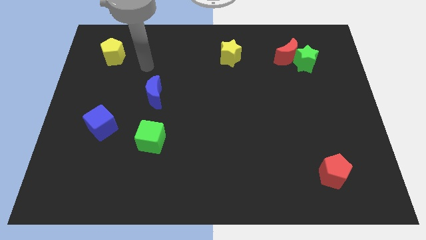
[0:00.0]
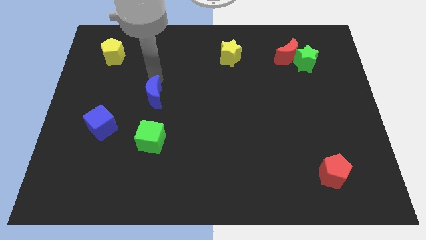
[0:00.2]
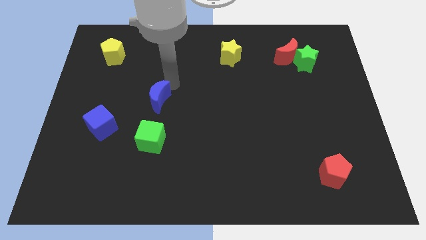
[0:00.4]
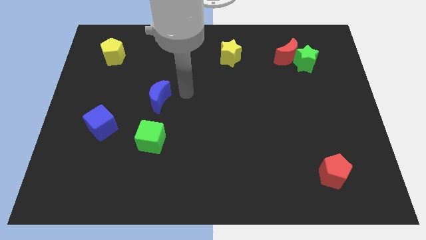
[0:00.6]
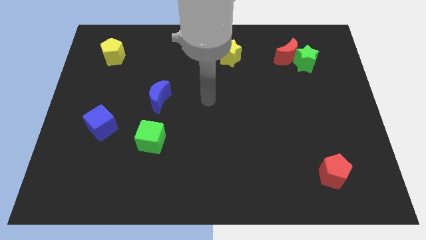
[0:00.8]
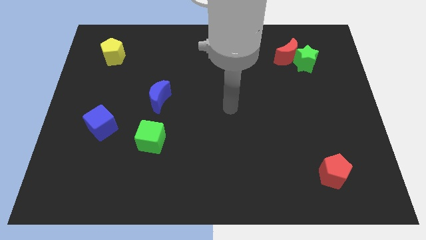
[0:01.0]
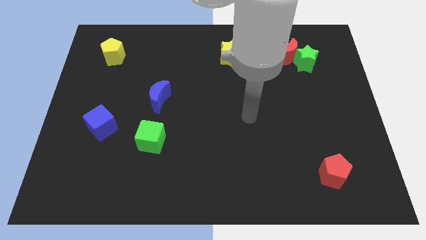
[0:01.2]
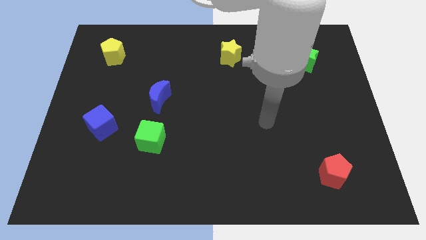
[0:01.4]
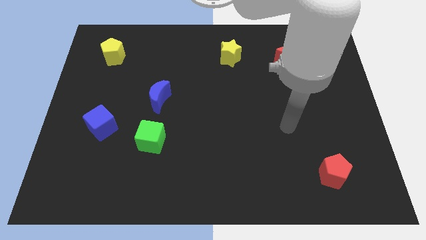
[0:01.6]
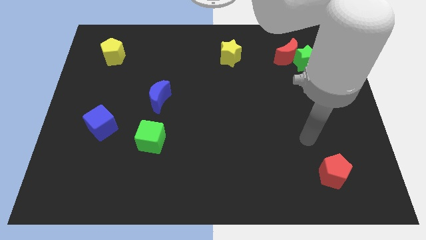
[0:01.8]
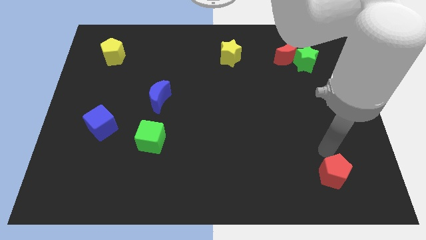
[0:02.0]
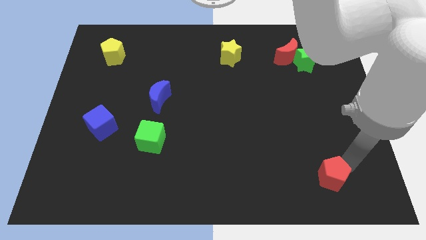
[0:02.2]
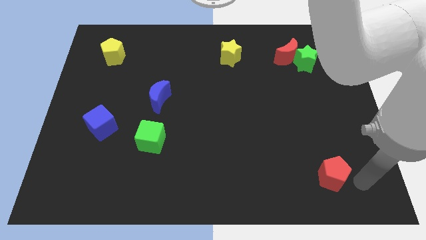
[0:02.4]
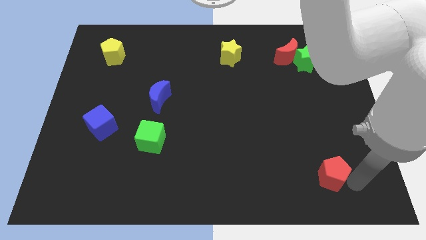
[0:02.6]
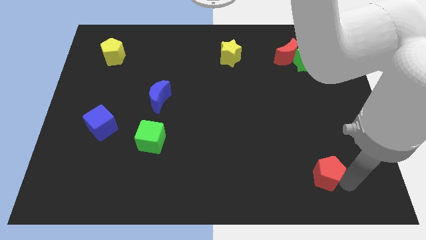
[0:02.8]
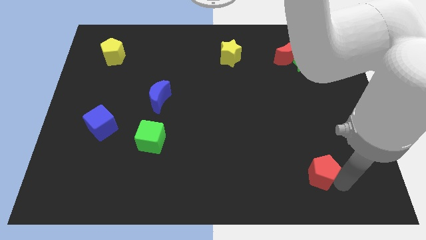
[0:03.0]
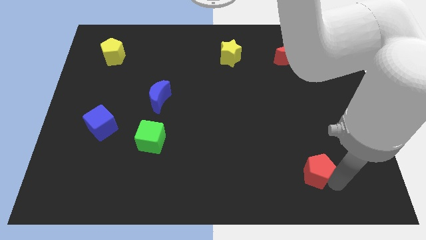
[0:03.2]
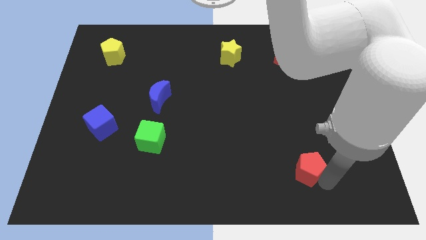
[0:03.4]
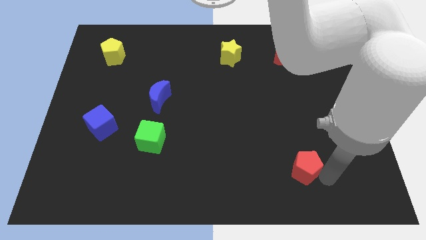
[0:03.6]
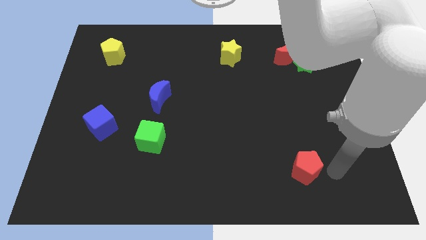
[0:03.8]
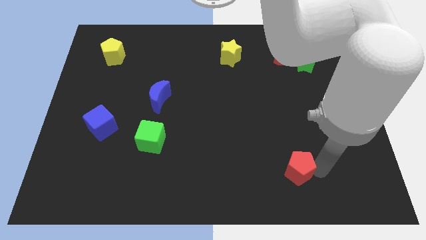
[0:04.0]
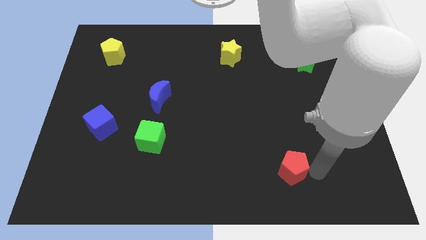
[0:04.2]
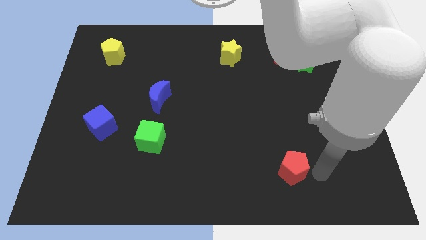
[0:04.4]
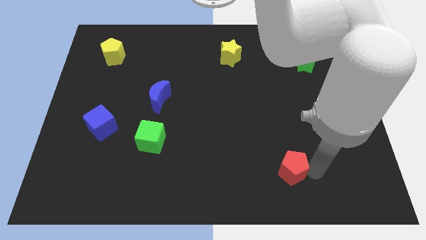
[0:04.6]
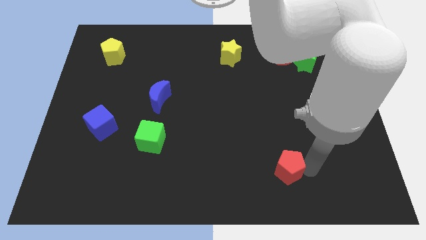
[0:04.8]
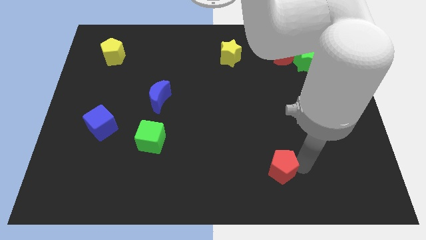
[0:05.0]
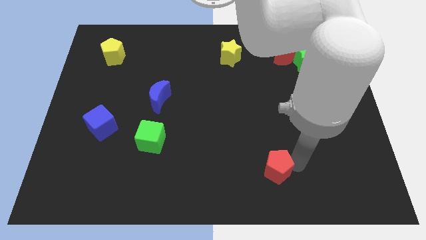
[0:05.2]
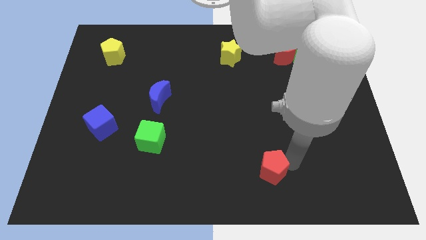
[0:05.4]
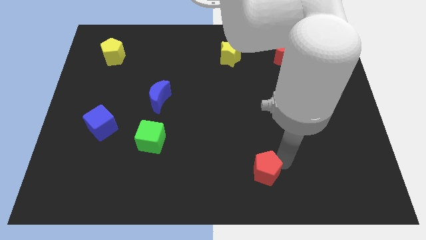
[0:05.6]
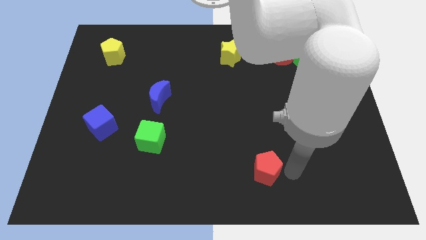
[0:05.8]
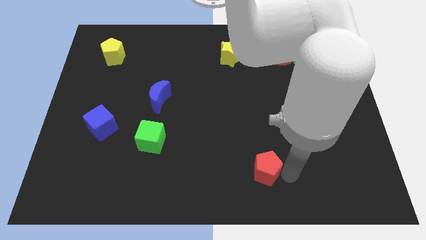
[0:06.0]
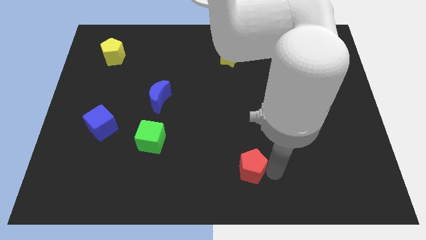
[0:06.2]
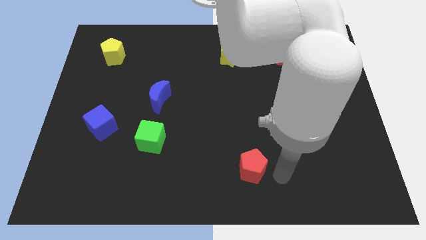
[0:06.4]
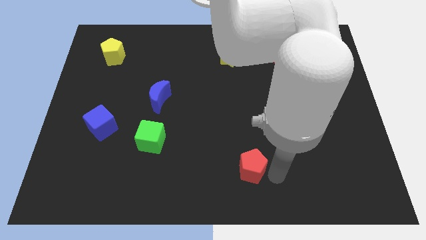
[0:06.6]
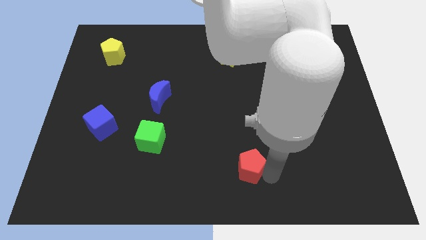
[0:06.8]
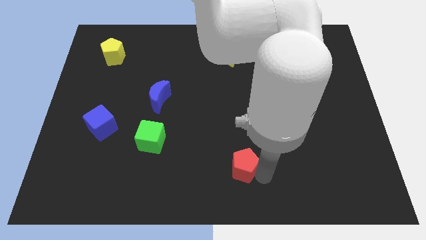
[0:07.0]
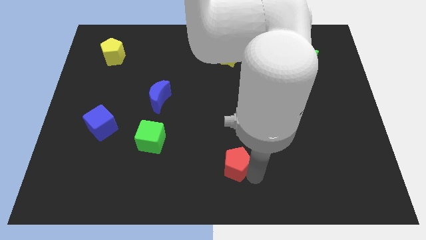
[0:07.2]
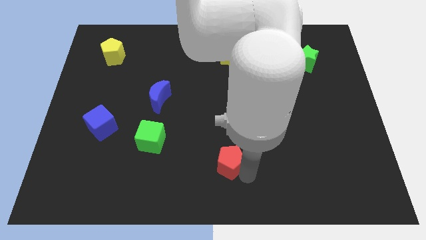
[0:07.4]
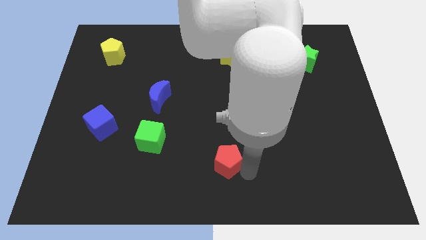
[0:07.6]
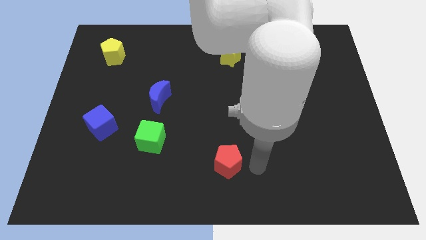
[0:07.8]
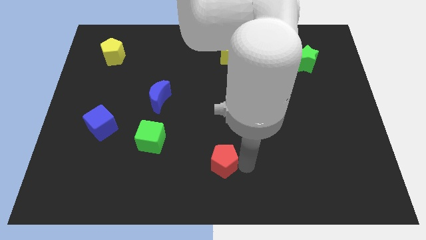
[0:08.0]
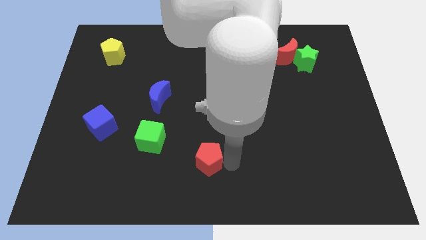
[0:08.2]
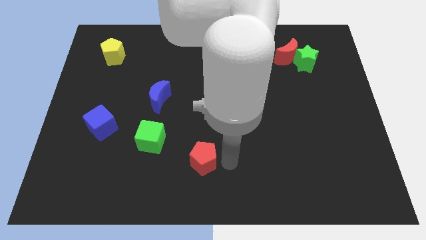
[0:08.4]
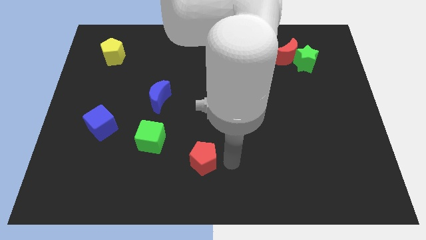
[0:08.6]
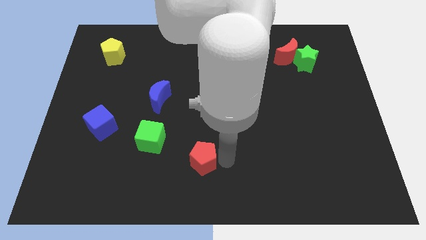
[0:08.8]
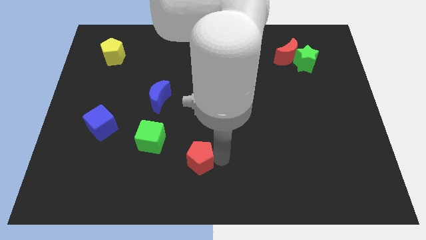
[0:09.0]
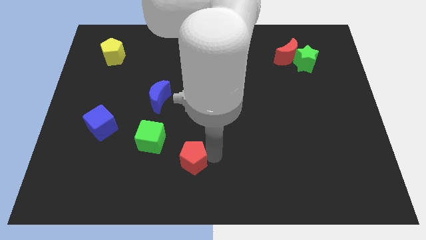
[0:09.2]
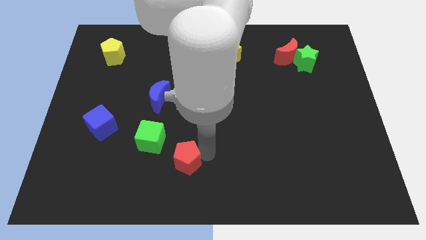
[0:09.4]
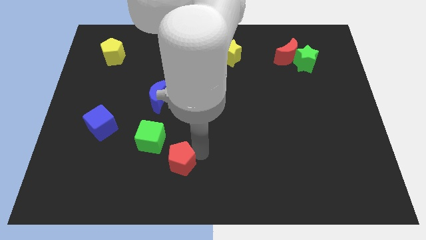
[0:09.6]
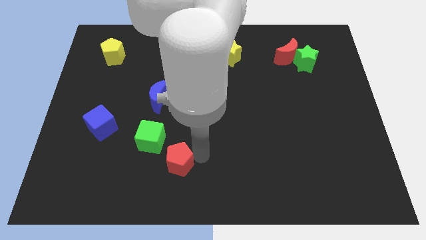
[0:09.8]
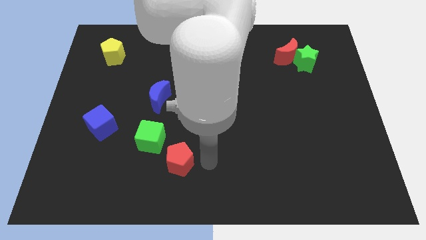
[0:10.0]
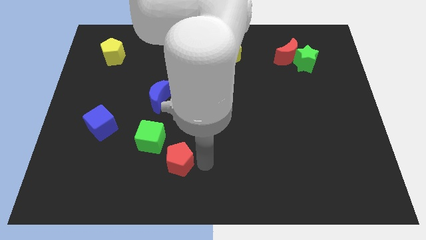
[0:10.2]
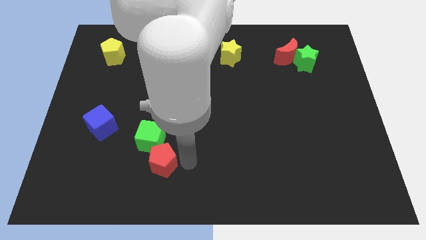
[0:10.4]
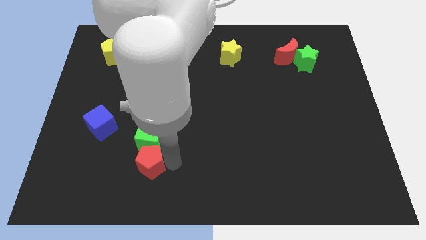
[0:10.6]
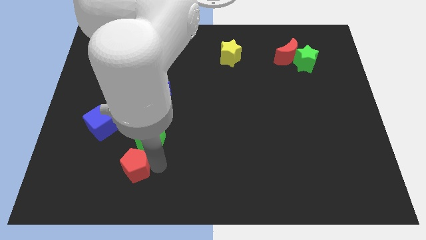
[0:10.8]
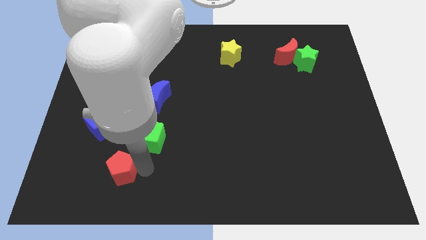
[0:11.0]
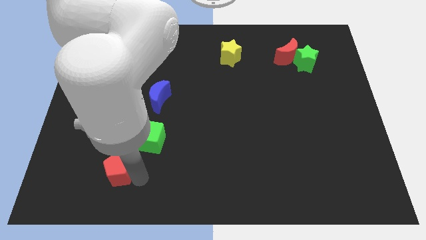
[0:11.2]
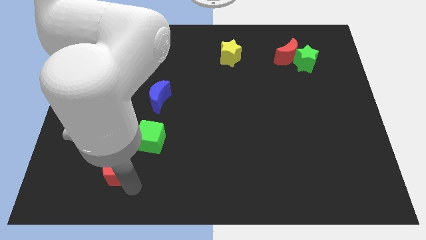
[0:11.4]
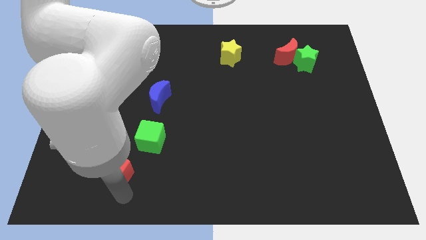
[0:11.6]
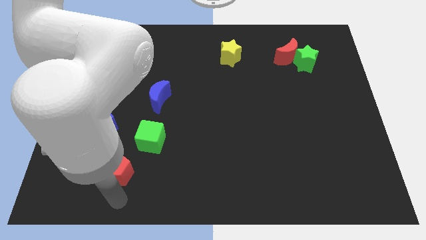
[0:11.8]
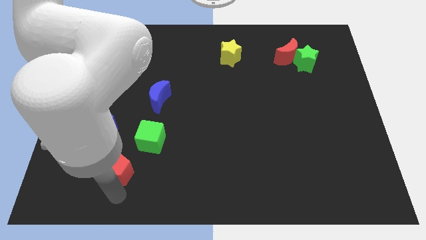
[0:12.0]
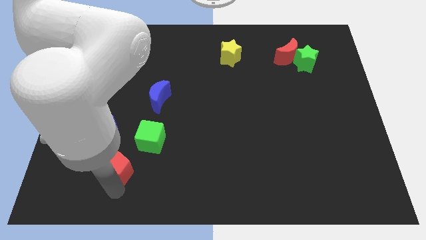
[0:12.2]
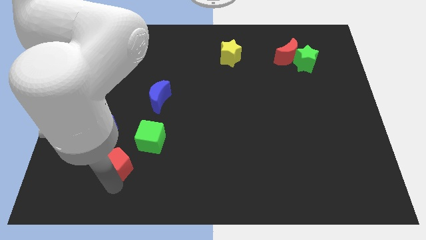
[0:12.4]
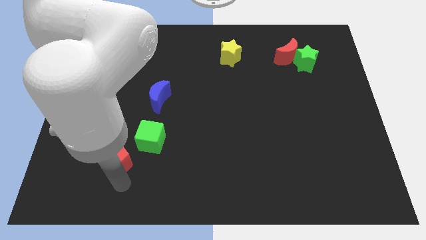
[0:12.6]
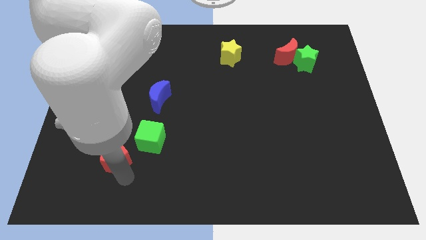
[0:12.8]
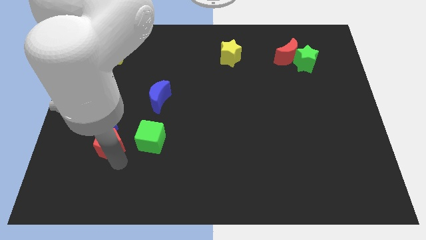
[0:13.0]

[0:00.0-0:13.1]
push the red pentagon towards the blue cube
